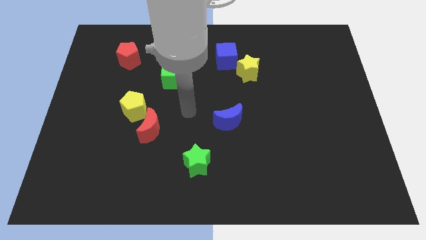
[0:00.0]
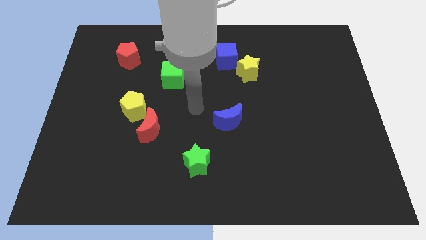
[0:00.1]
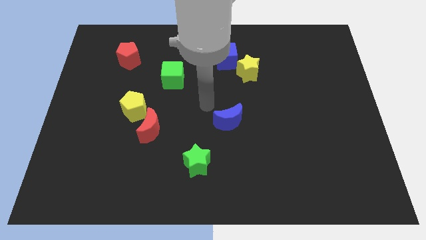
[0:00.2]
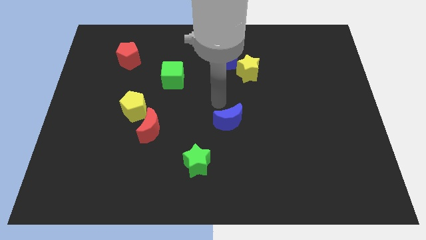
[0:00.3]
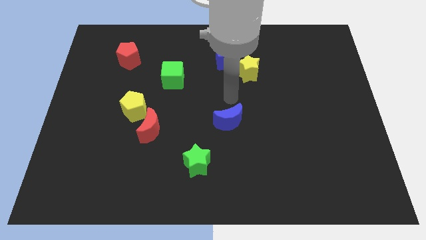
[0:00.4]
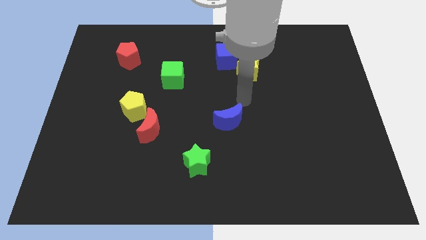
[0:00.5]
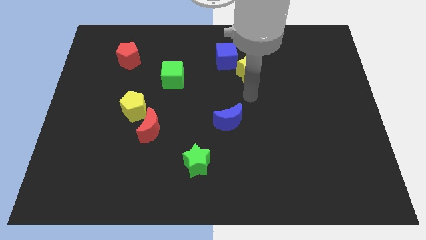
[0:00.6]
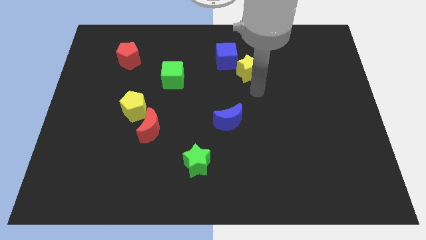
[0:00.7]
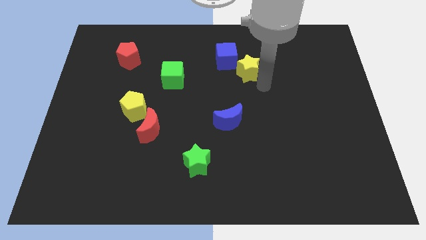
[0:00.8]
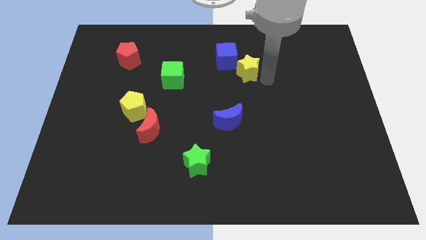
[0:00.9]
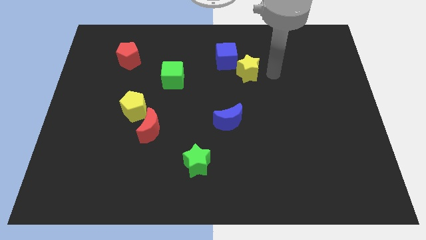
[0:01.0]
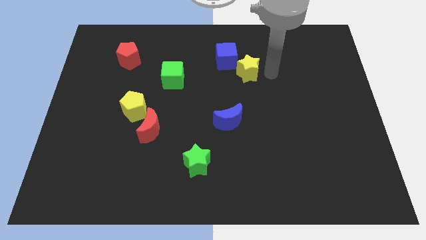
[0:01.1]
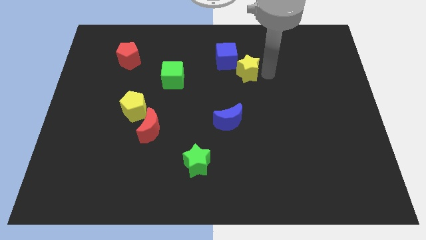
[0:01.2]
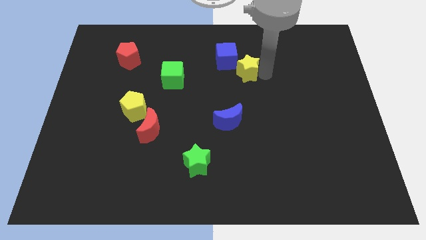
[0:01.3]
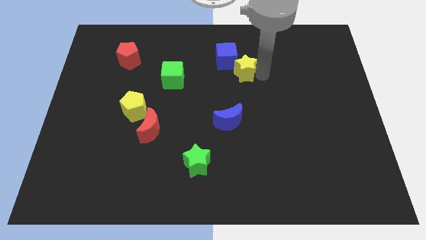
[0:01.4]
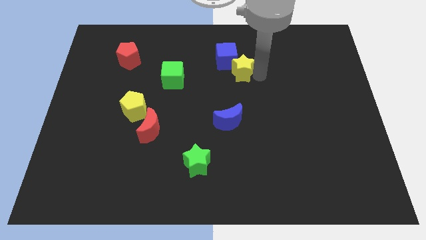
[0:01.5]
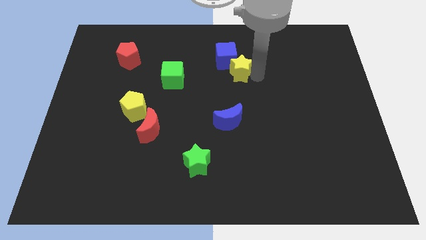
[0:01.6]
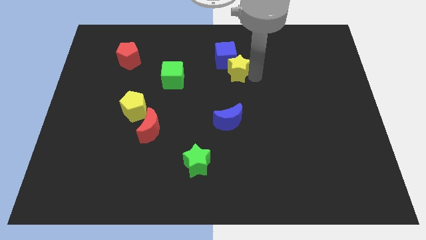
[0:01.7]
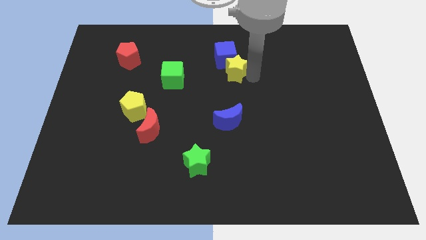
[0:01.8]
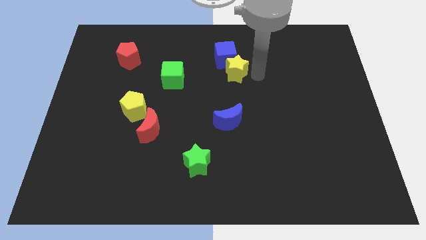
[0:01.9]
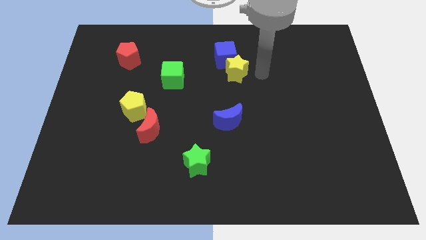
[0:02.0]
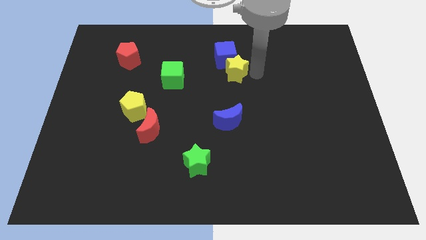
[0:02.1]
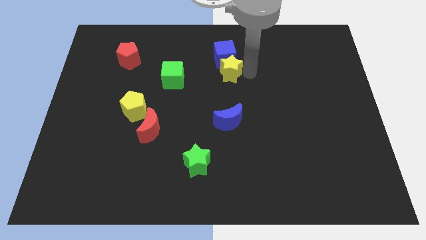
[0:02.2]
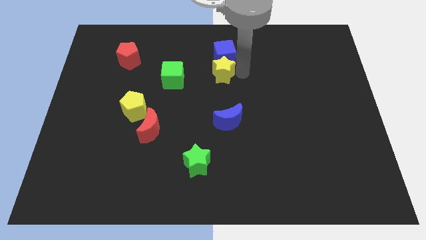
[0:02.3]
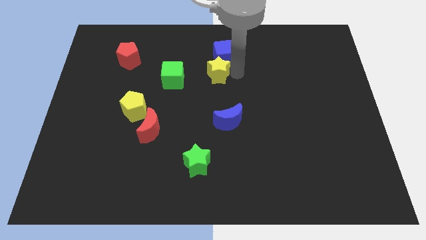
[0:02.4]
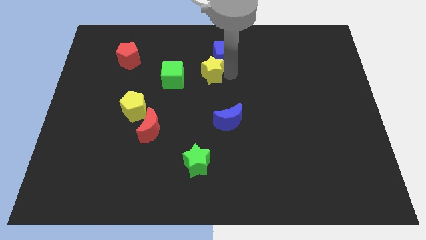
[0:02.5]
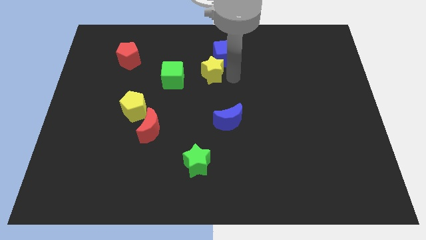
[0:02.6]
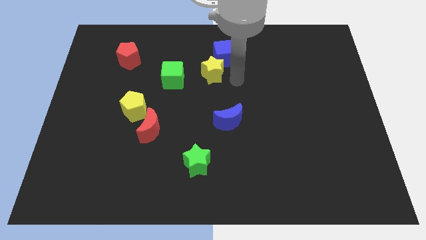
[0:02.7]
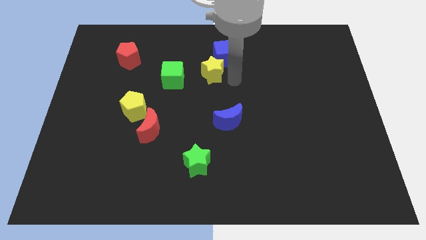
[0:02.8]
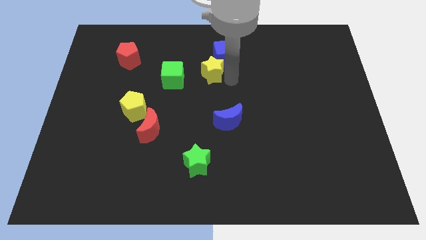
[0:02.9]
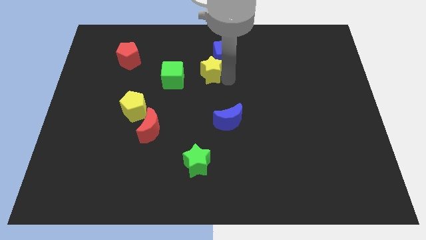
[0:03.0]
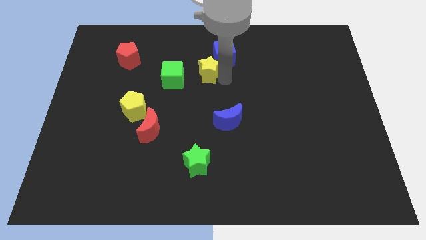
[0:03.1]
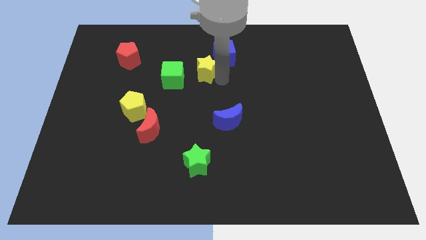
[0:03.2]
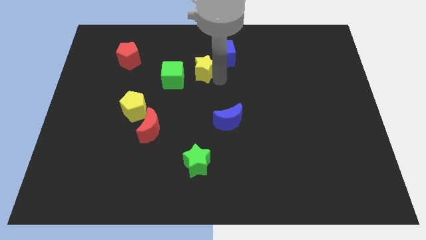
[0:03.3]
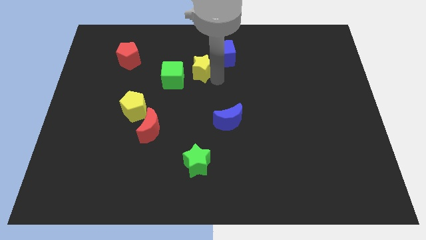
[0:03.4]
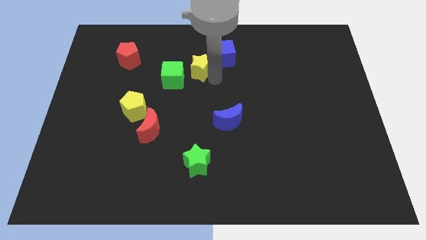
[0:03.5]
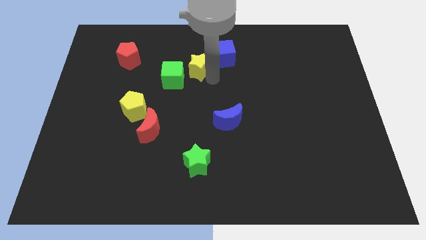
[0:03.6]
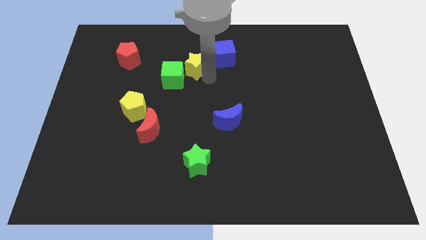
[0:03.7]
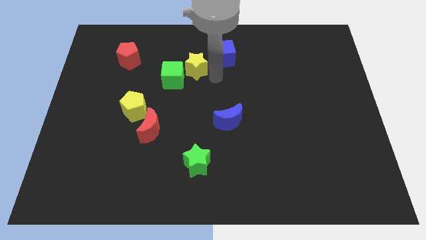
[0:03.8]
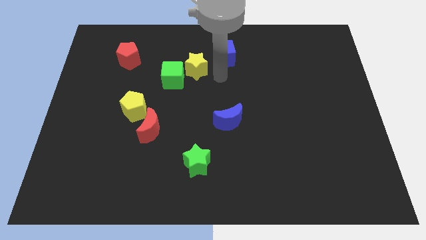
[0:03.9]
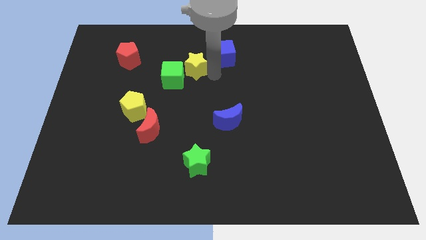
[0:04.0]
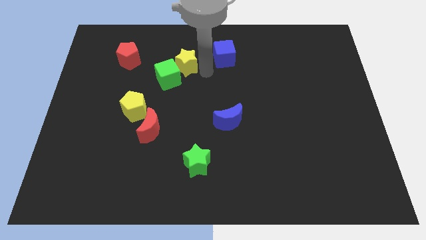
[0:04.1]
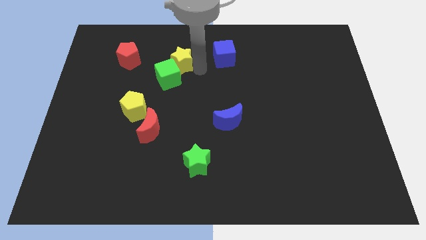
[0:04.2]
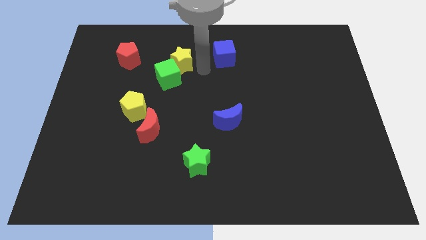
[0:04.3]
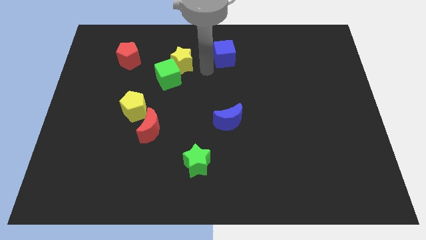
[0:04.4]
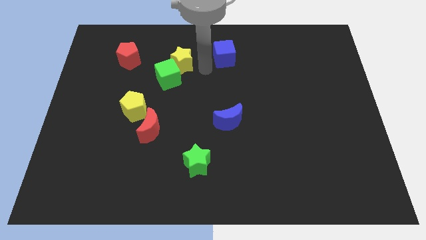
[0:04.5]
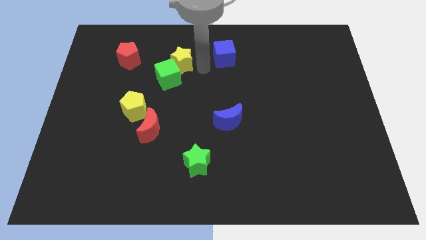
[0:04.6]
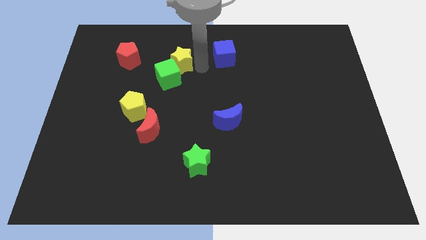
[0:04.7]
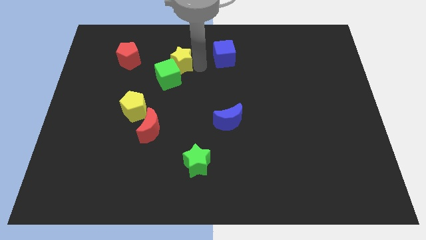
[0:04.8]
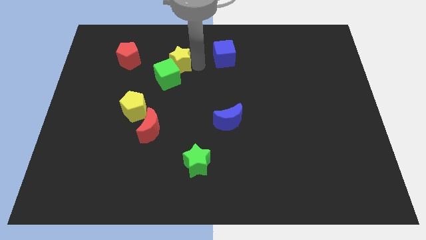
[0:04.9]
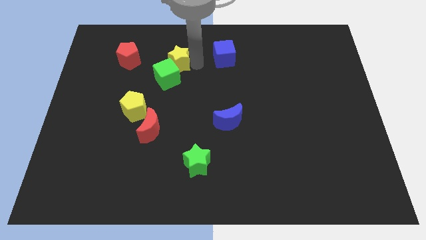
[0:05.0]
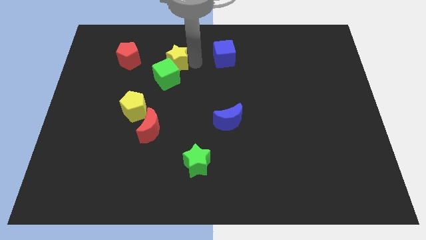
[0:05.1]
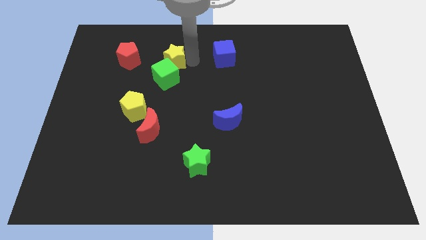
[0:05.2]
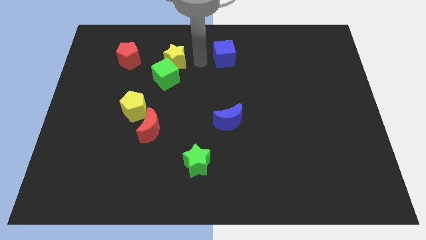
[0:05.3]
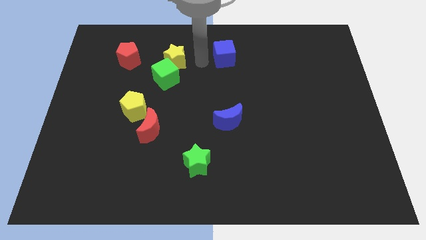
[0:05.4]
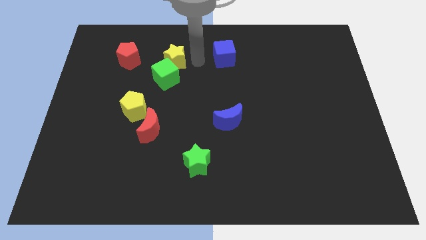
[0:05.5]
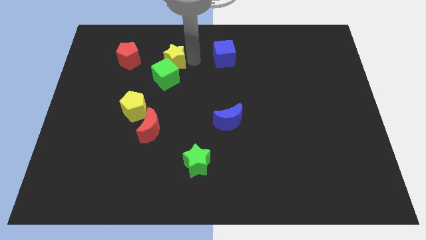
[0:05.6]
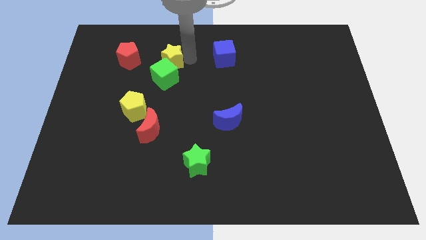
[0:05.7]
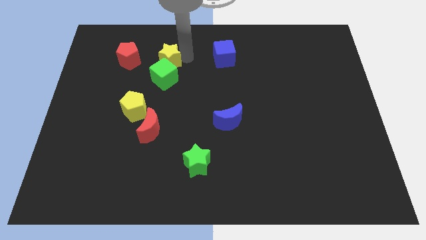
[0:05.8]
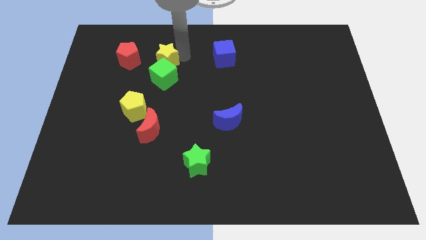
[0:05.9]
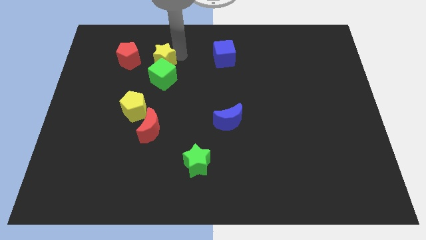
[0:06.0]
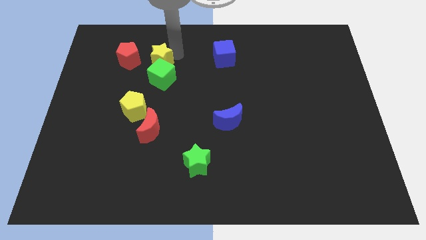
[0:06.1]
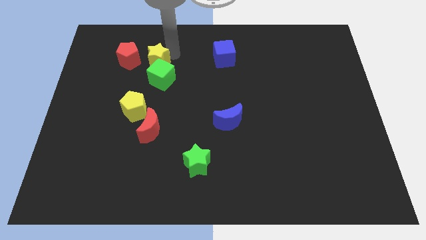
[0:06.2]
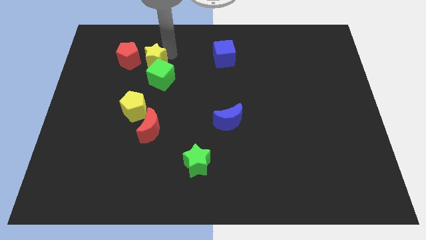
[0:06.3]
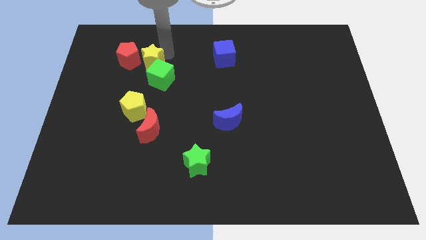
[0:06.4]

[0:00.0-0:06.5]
move the yellow star towards the red pentagon
